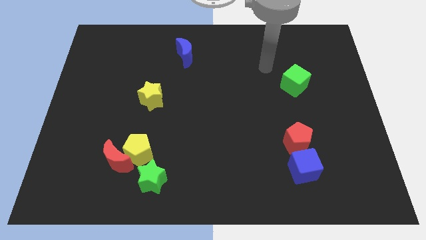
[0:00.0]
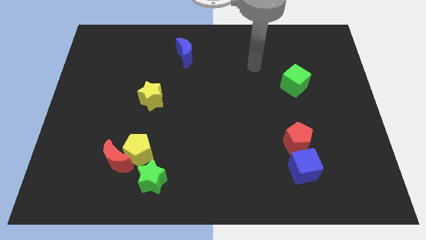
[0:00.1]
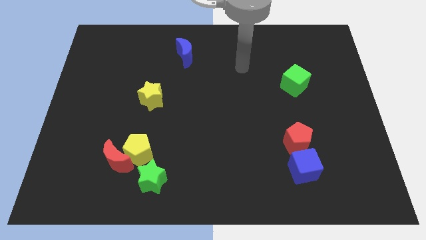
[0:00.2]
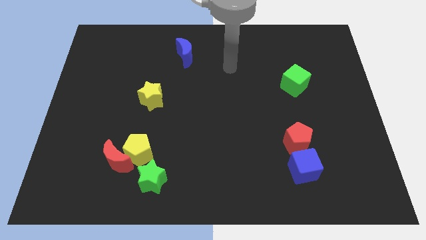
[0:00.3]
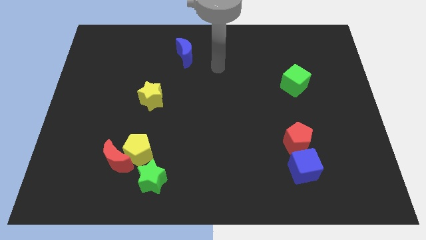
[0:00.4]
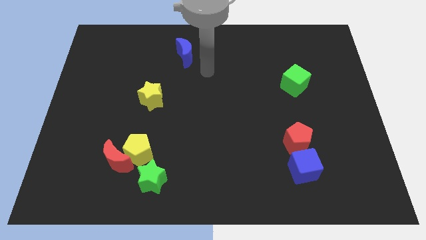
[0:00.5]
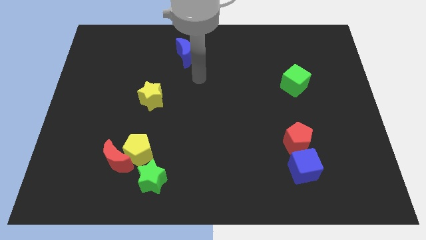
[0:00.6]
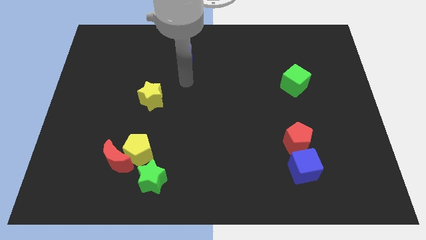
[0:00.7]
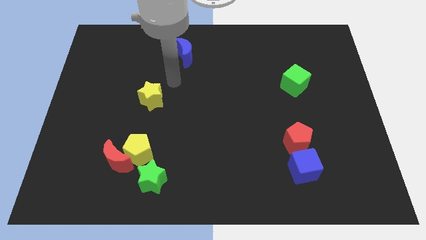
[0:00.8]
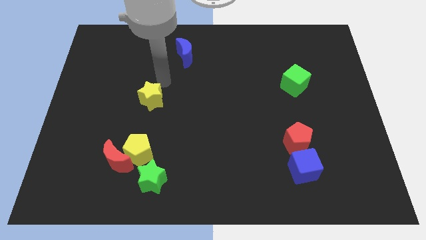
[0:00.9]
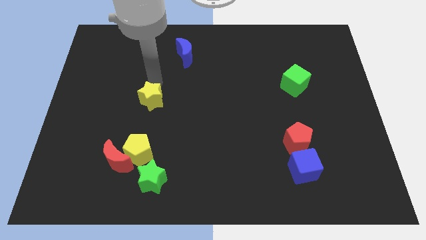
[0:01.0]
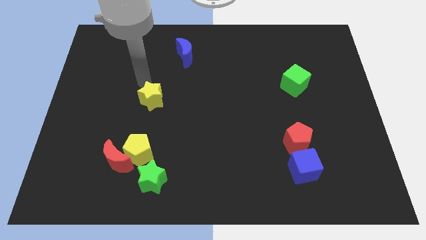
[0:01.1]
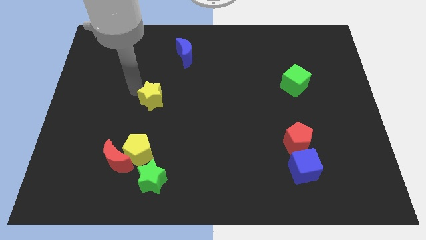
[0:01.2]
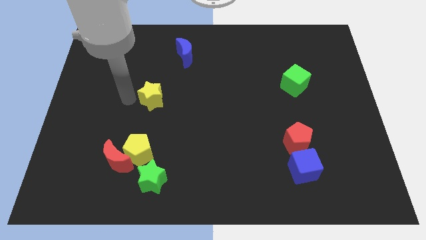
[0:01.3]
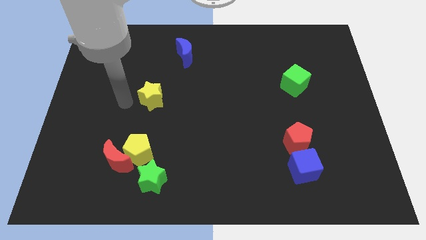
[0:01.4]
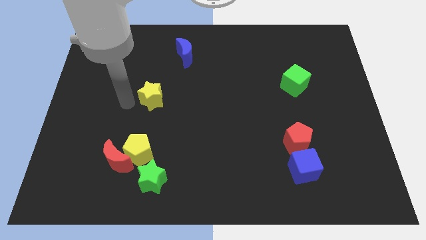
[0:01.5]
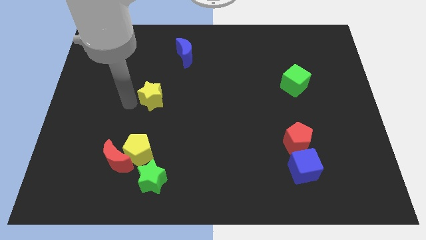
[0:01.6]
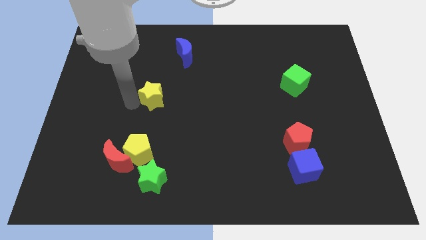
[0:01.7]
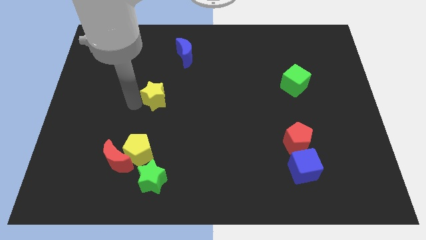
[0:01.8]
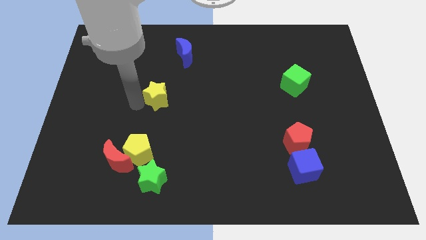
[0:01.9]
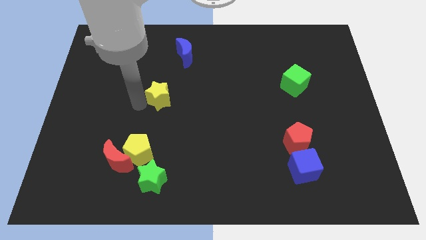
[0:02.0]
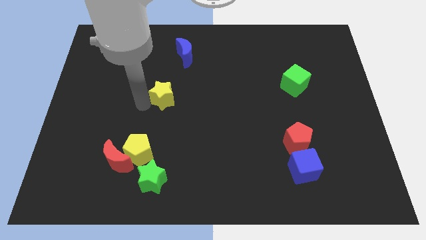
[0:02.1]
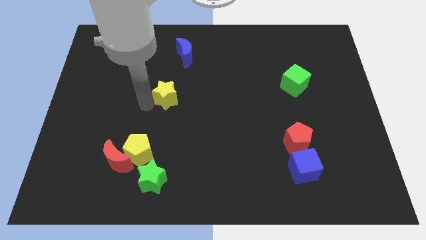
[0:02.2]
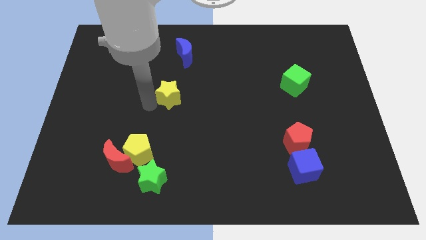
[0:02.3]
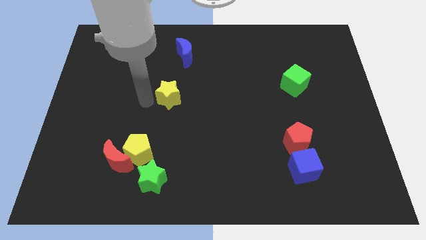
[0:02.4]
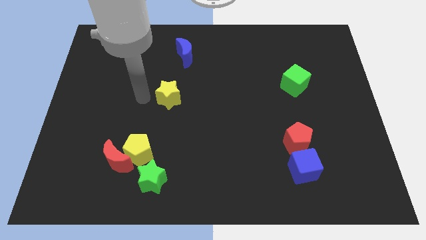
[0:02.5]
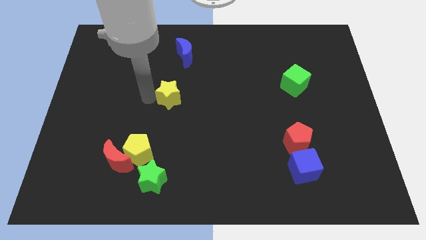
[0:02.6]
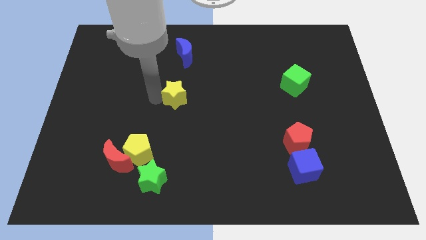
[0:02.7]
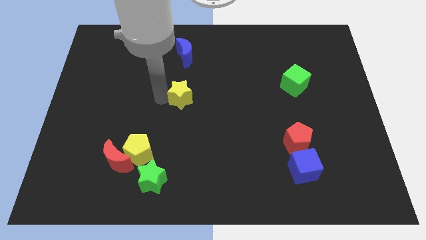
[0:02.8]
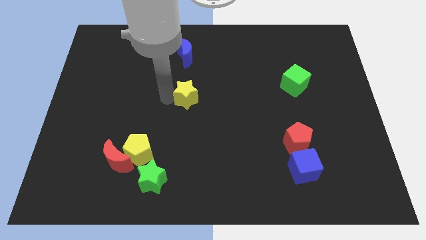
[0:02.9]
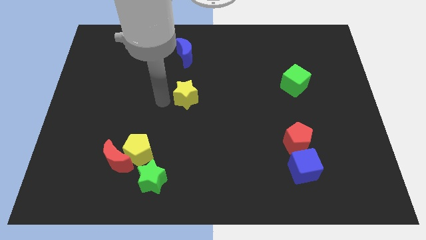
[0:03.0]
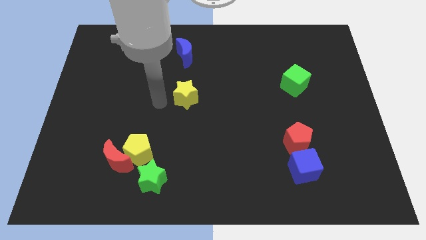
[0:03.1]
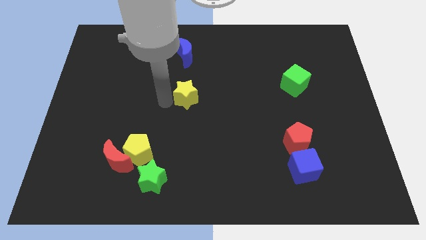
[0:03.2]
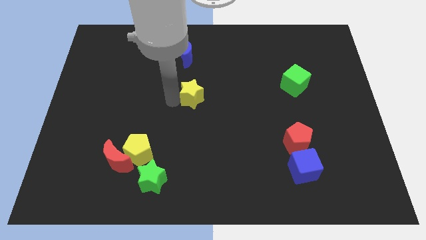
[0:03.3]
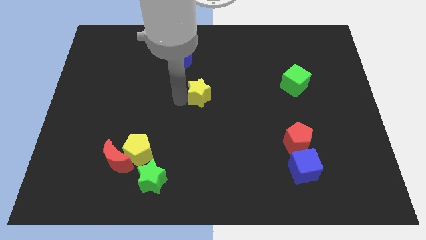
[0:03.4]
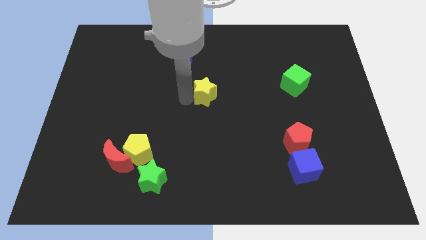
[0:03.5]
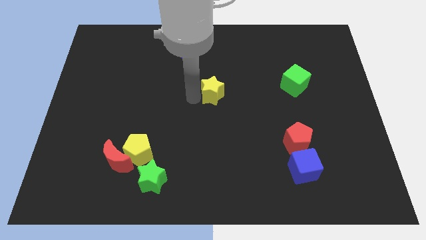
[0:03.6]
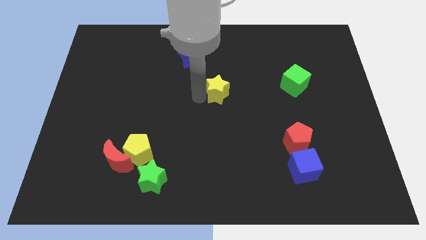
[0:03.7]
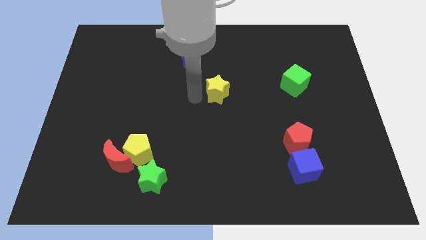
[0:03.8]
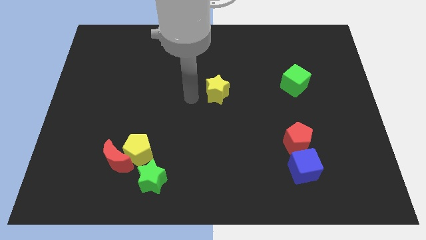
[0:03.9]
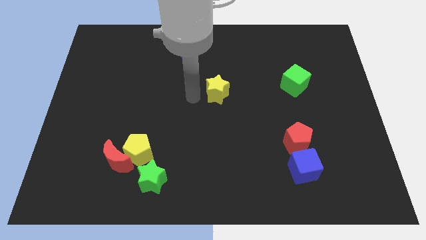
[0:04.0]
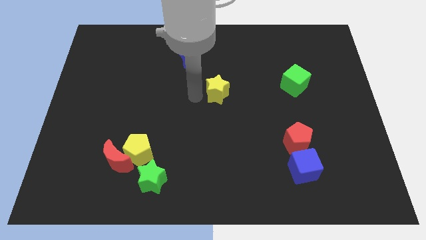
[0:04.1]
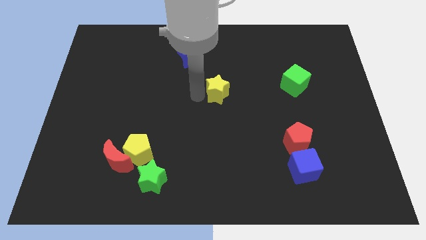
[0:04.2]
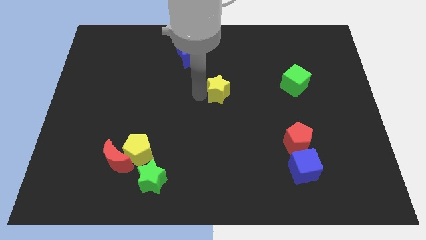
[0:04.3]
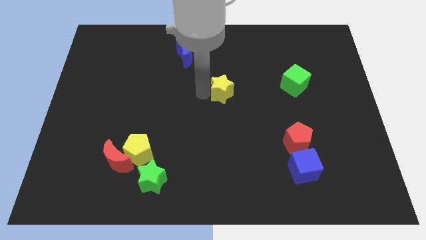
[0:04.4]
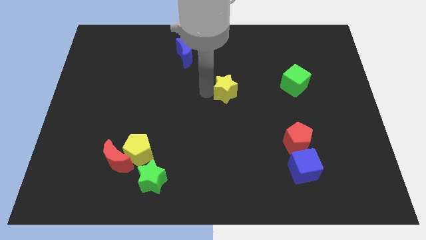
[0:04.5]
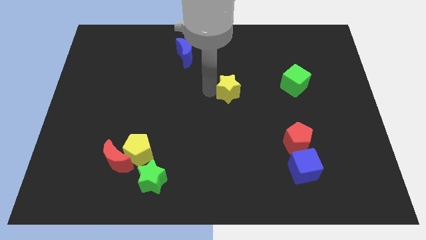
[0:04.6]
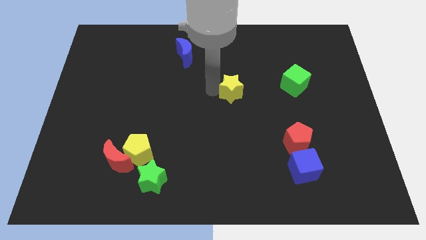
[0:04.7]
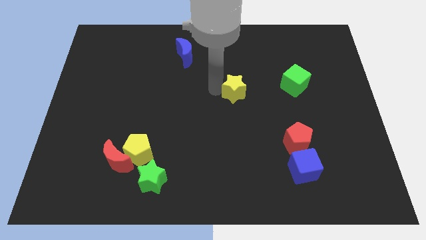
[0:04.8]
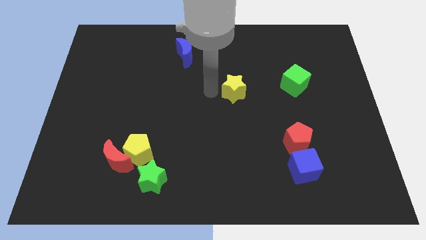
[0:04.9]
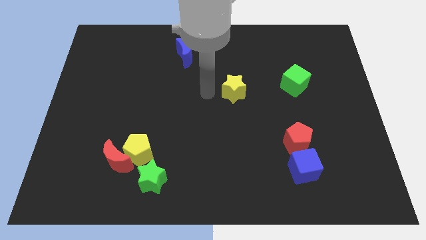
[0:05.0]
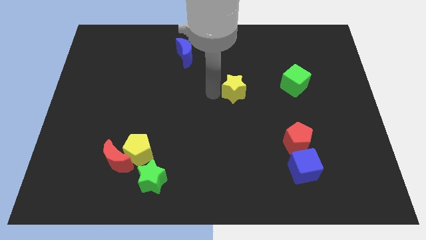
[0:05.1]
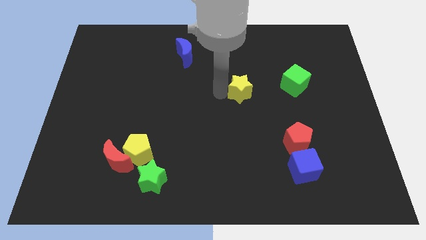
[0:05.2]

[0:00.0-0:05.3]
move the yellow star to the right

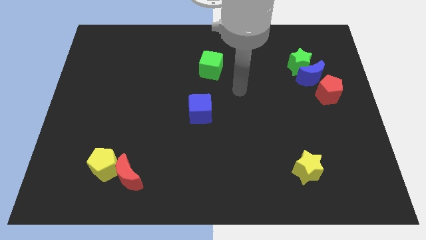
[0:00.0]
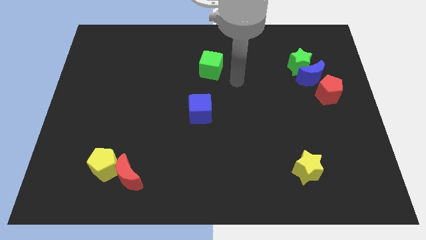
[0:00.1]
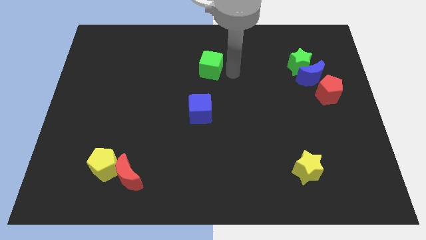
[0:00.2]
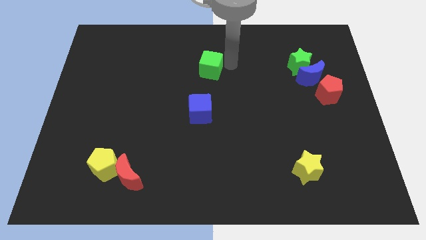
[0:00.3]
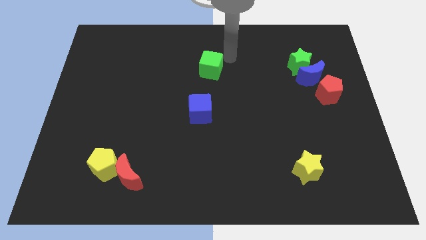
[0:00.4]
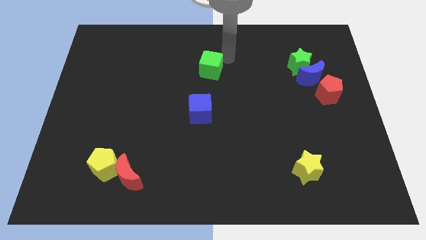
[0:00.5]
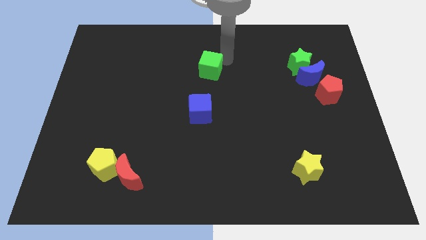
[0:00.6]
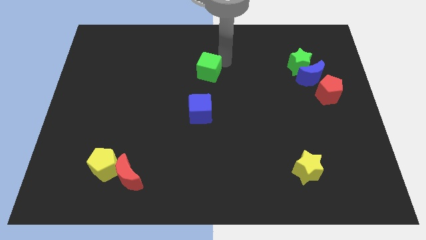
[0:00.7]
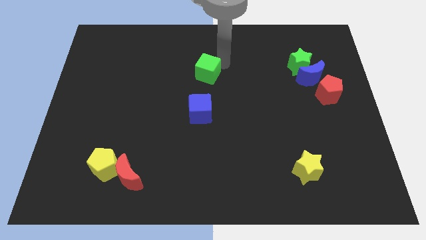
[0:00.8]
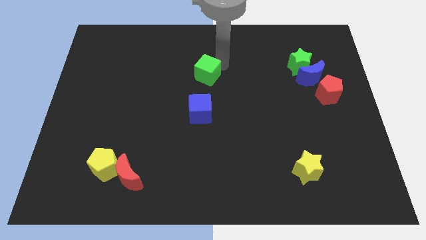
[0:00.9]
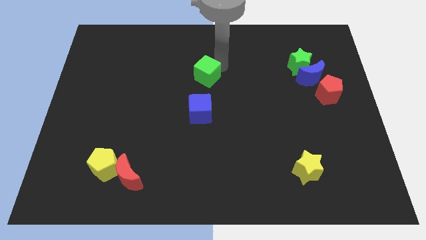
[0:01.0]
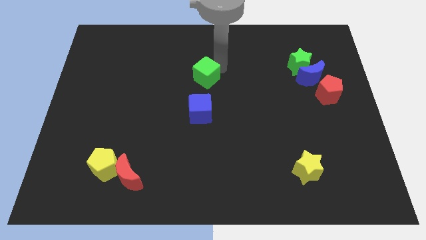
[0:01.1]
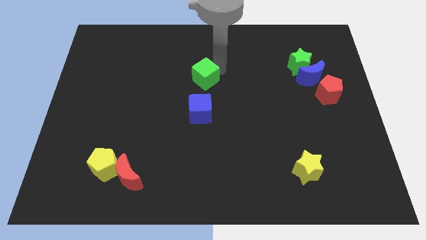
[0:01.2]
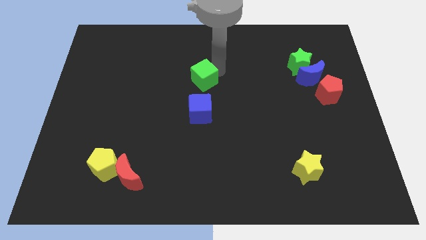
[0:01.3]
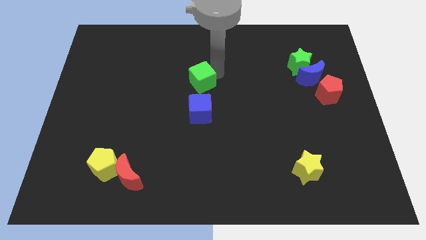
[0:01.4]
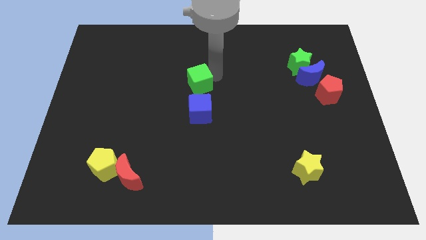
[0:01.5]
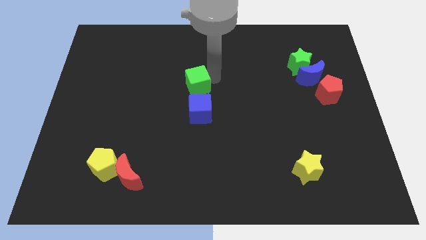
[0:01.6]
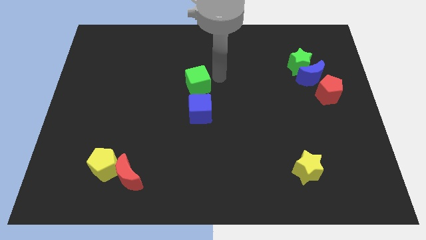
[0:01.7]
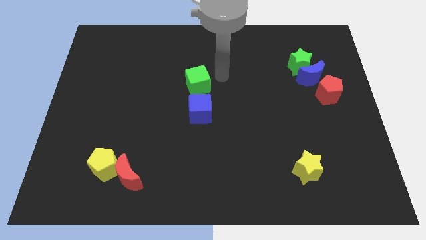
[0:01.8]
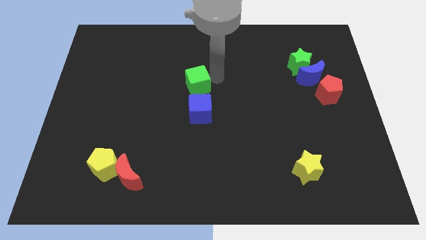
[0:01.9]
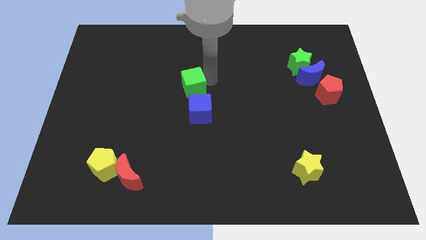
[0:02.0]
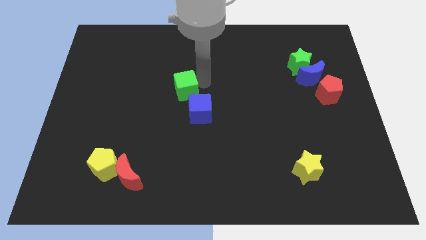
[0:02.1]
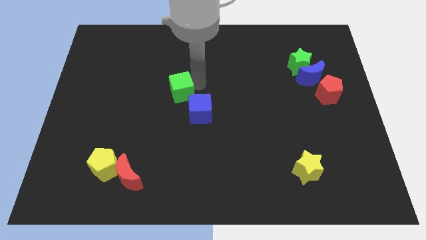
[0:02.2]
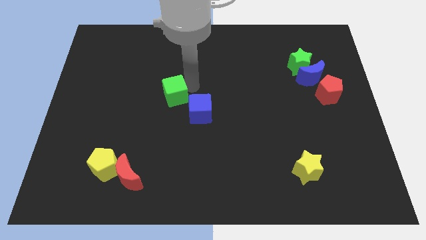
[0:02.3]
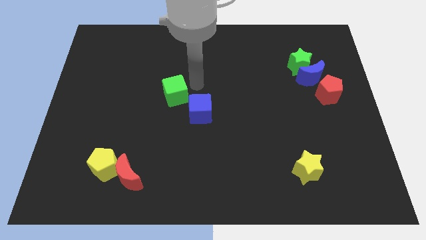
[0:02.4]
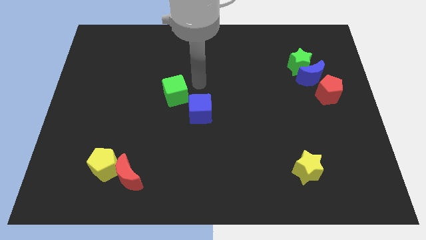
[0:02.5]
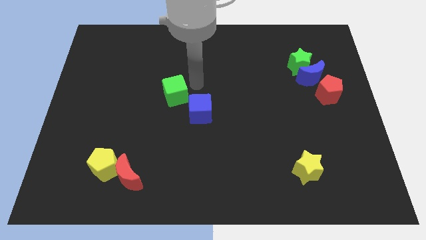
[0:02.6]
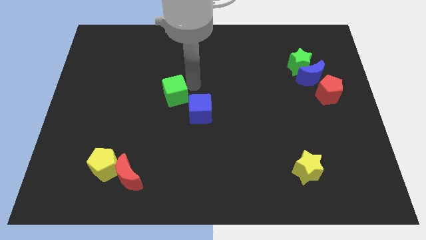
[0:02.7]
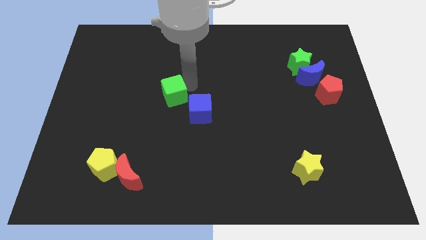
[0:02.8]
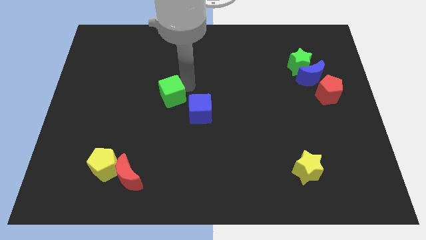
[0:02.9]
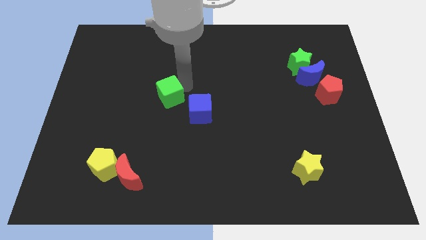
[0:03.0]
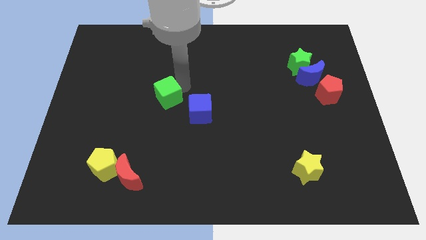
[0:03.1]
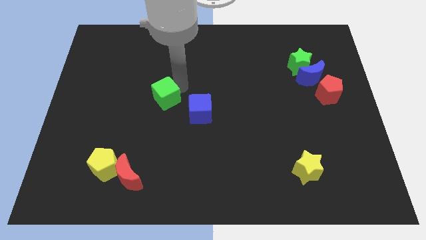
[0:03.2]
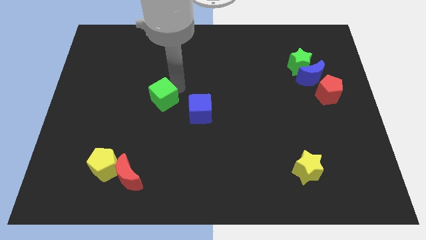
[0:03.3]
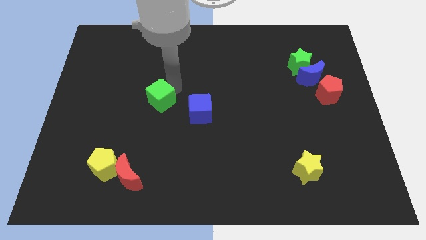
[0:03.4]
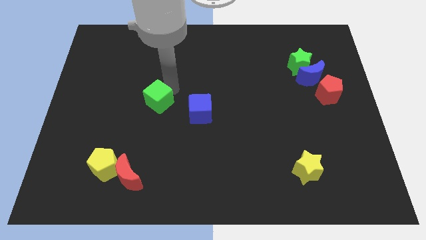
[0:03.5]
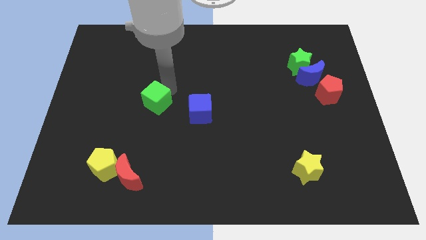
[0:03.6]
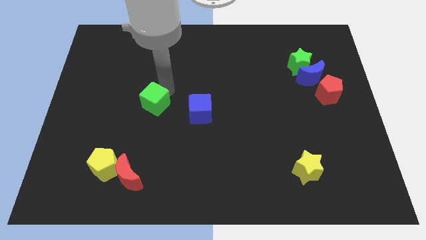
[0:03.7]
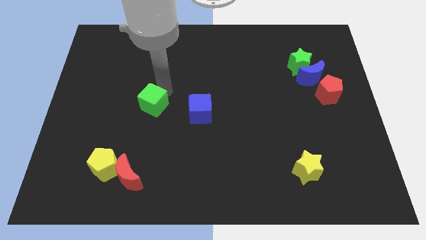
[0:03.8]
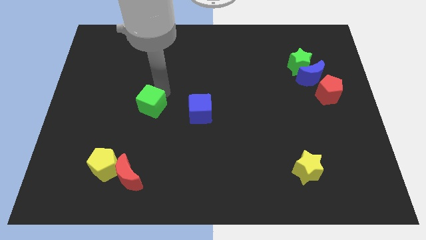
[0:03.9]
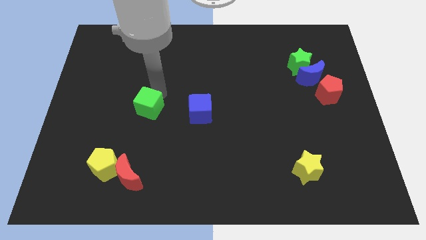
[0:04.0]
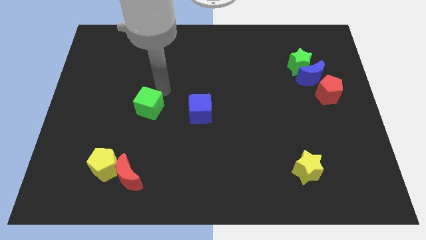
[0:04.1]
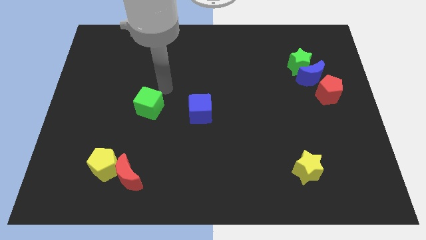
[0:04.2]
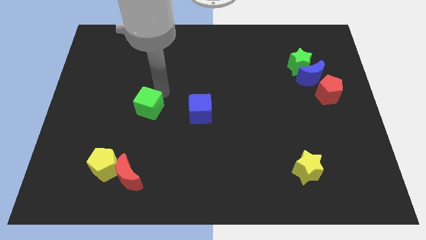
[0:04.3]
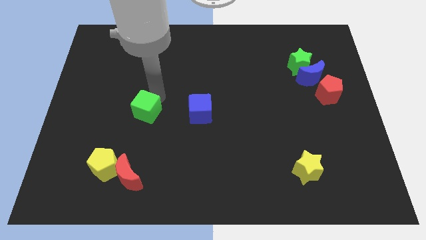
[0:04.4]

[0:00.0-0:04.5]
move the green cube downwards and left diagonally
